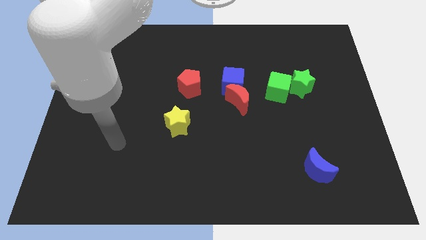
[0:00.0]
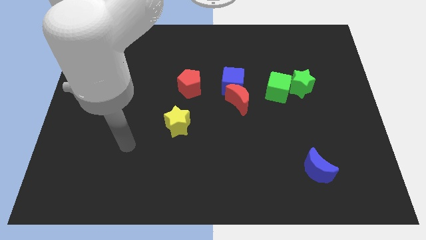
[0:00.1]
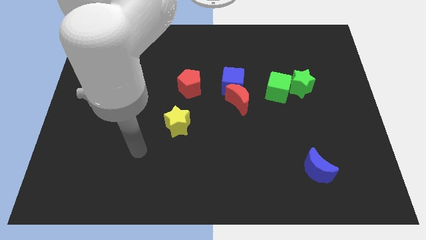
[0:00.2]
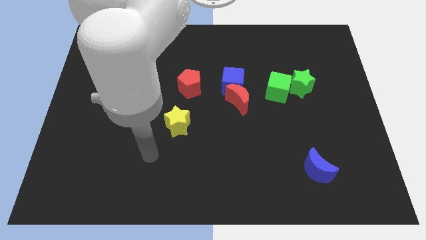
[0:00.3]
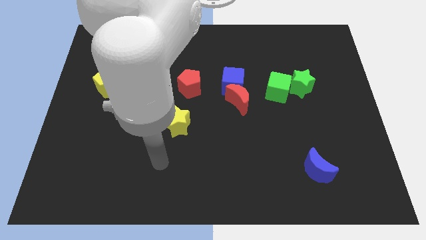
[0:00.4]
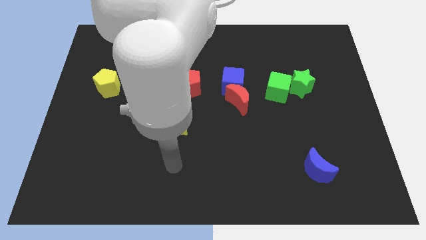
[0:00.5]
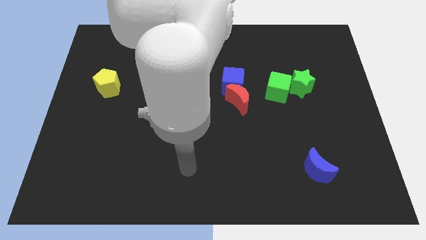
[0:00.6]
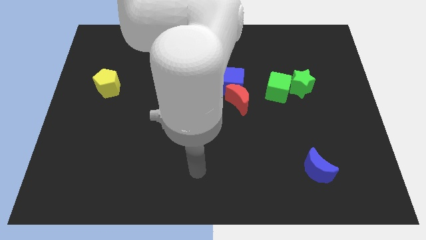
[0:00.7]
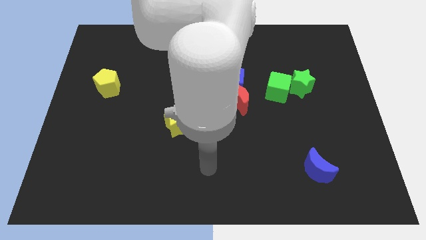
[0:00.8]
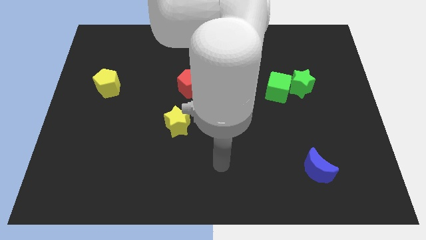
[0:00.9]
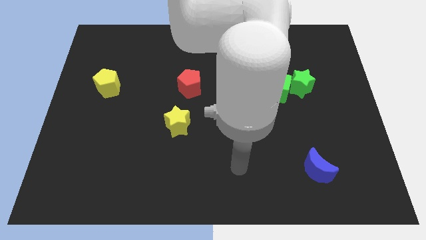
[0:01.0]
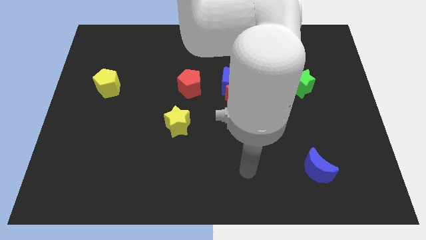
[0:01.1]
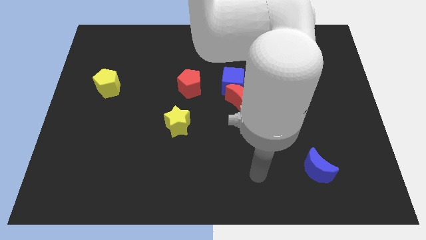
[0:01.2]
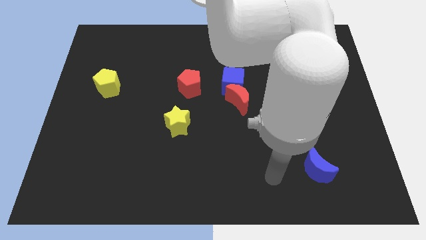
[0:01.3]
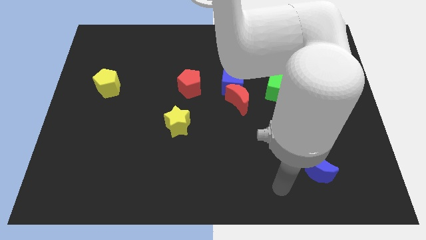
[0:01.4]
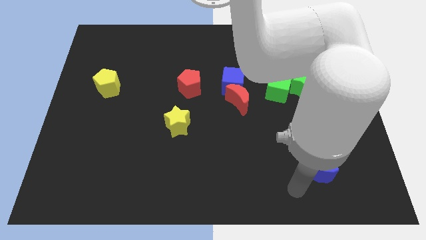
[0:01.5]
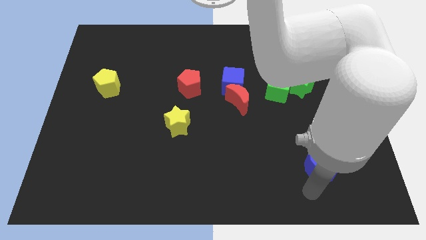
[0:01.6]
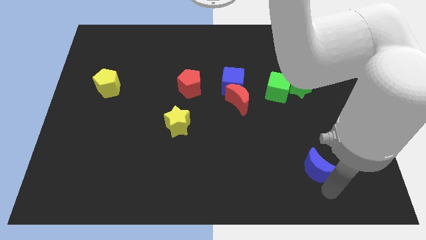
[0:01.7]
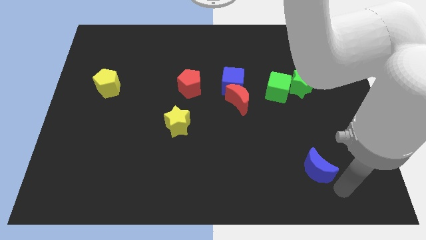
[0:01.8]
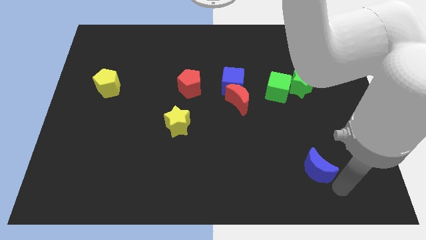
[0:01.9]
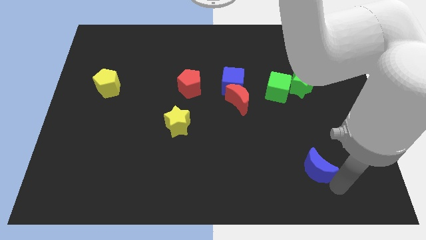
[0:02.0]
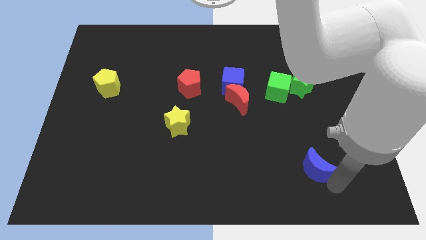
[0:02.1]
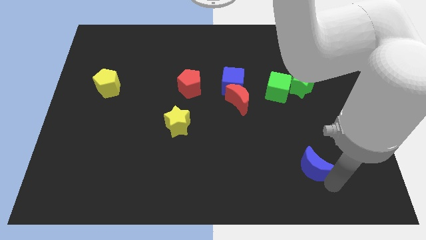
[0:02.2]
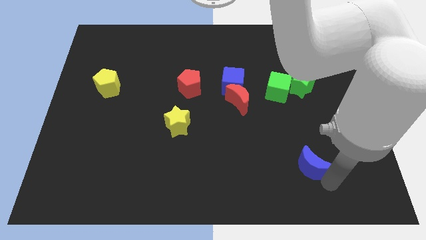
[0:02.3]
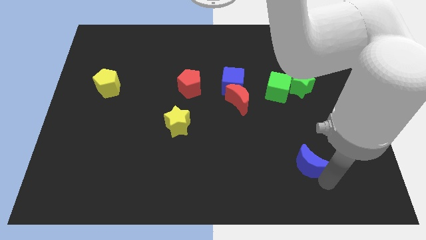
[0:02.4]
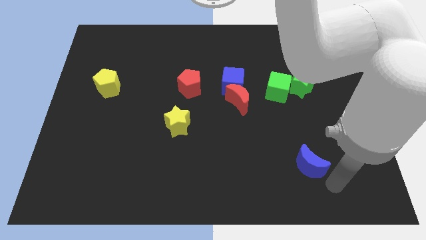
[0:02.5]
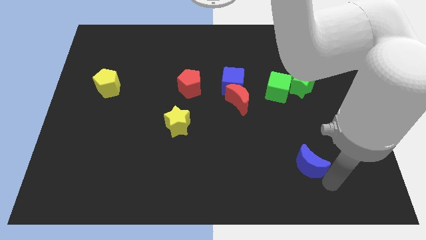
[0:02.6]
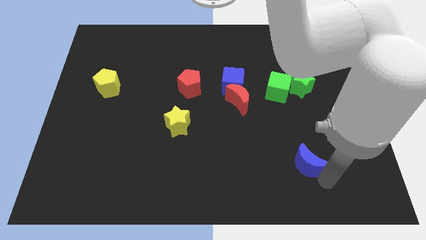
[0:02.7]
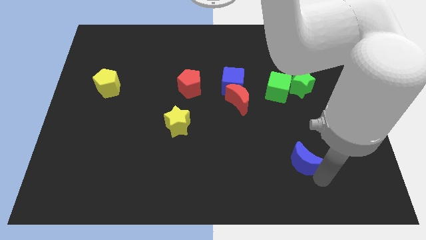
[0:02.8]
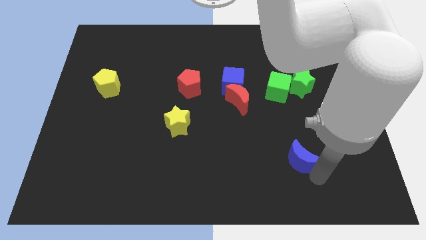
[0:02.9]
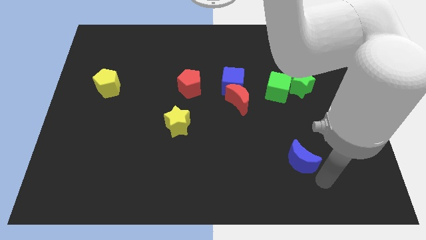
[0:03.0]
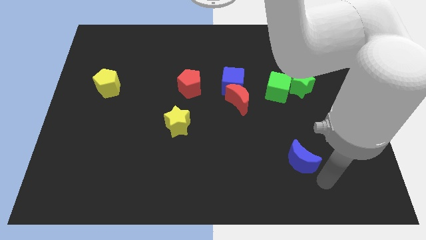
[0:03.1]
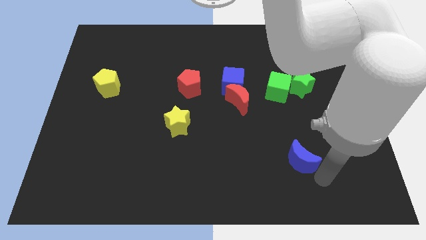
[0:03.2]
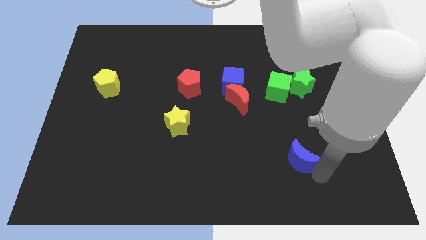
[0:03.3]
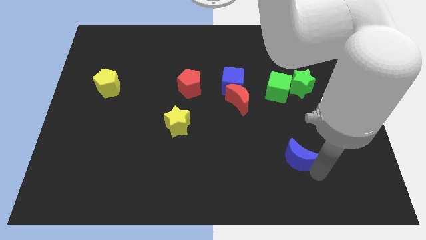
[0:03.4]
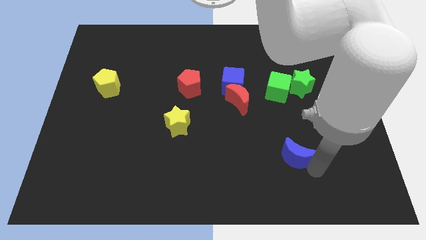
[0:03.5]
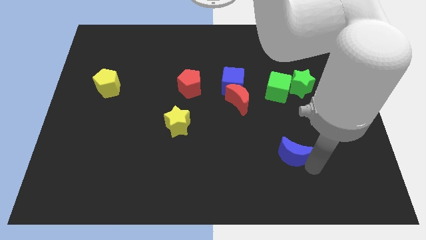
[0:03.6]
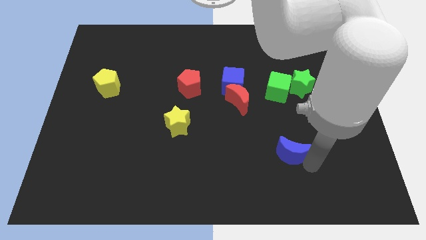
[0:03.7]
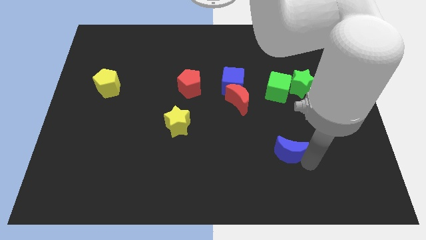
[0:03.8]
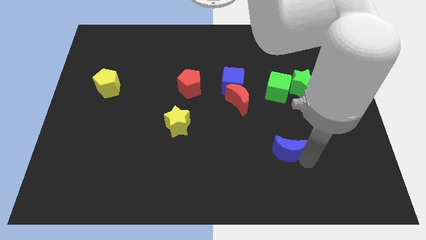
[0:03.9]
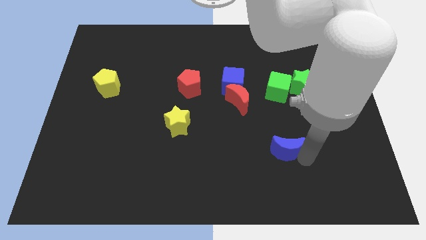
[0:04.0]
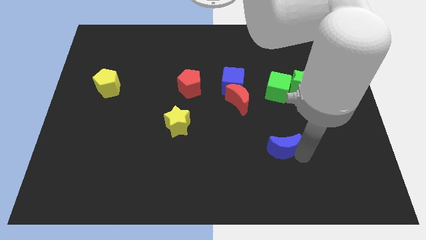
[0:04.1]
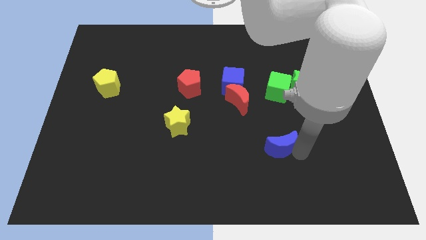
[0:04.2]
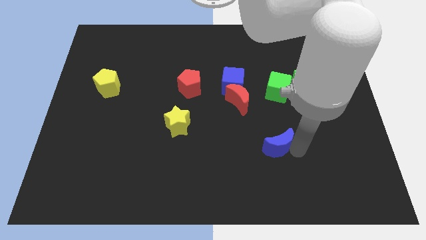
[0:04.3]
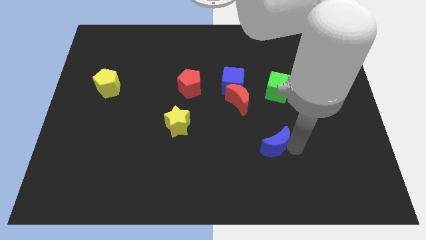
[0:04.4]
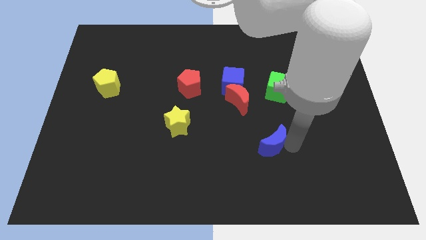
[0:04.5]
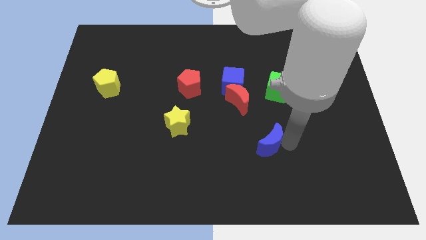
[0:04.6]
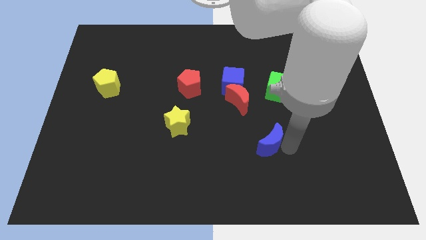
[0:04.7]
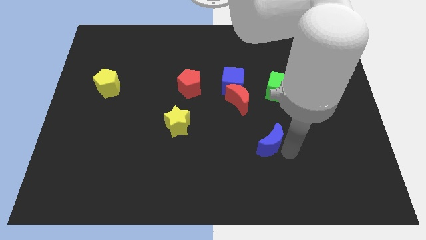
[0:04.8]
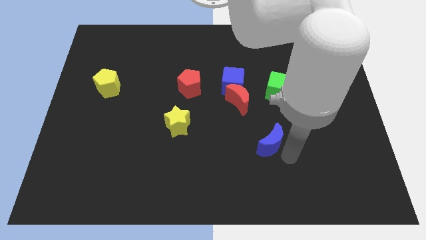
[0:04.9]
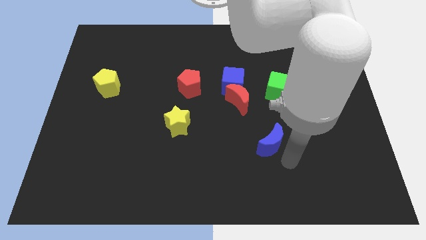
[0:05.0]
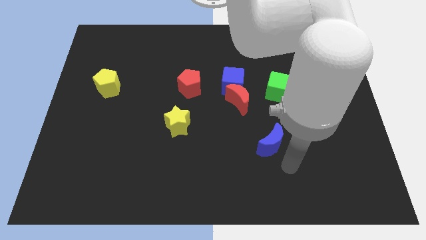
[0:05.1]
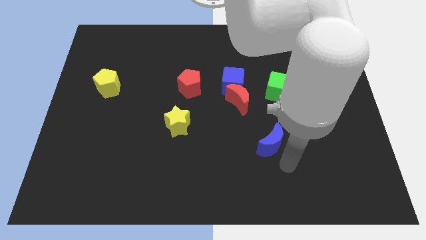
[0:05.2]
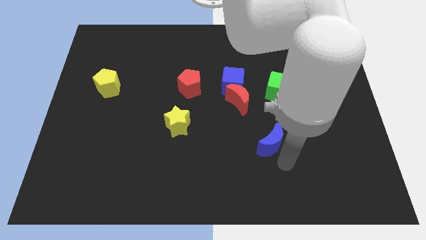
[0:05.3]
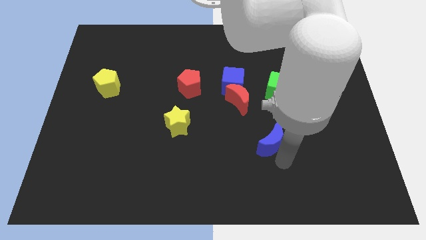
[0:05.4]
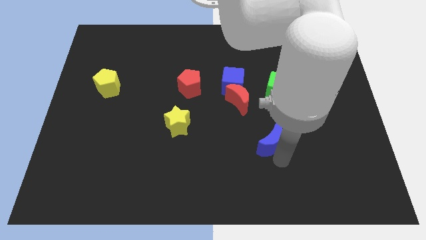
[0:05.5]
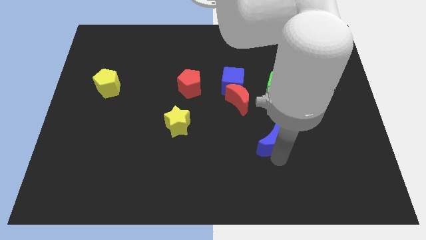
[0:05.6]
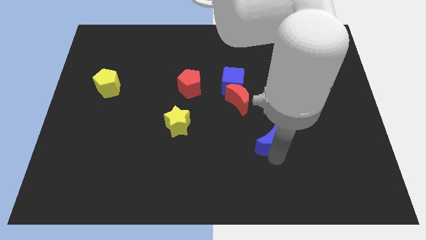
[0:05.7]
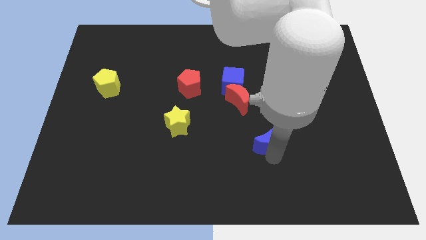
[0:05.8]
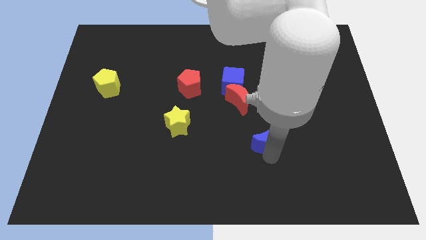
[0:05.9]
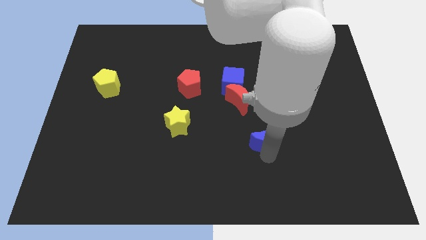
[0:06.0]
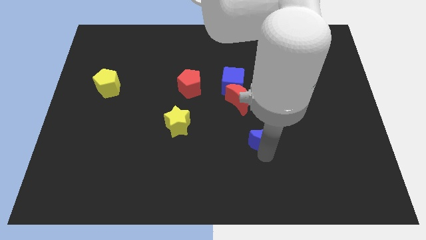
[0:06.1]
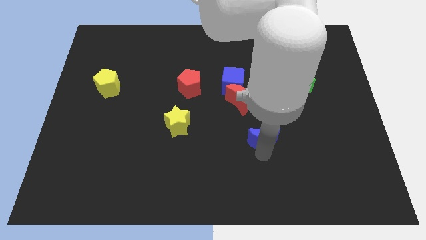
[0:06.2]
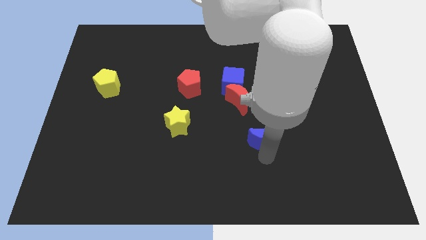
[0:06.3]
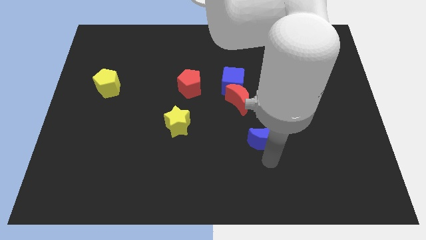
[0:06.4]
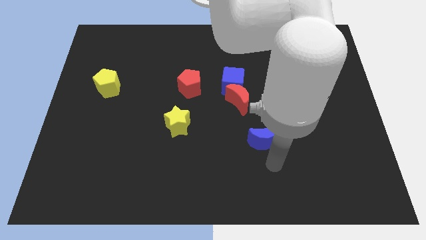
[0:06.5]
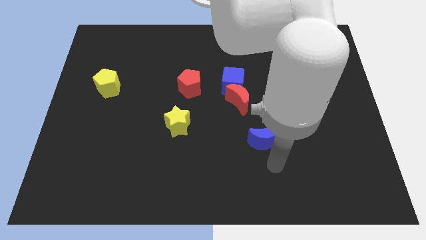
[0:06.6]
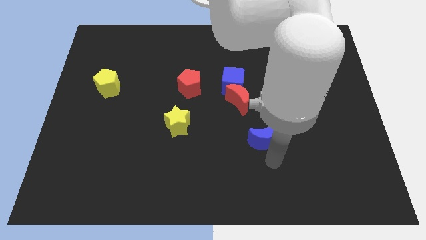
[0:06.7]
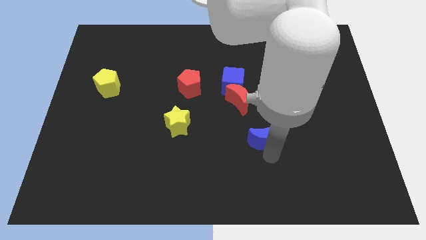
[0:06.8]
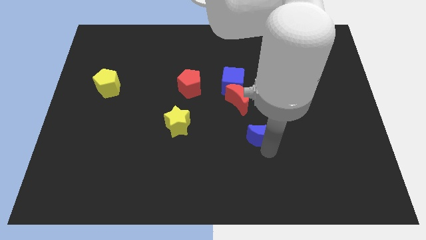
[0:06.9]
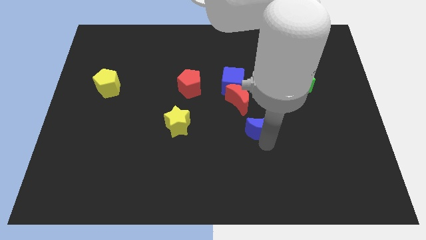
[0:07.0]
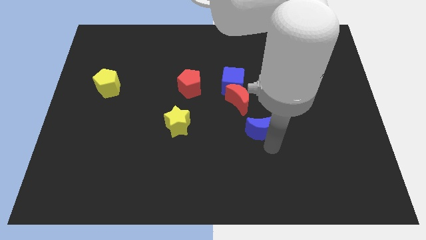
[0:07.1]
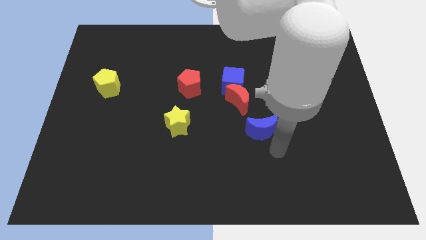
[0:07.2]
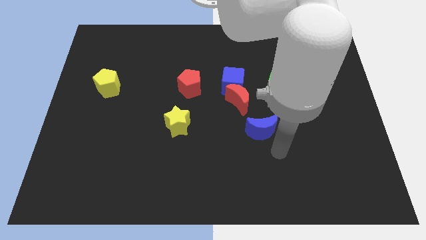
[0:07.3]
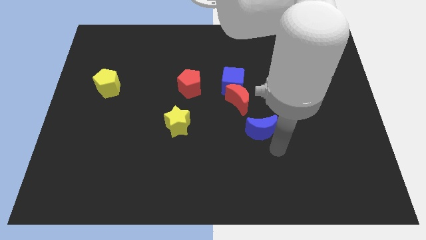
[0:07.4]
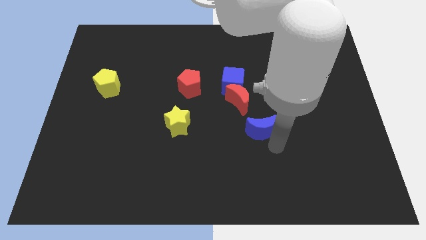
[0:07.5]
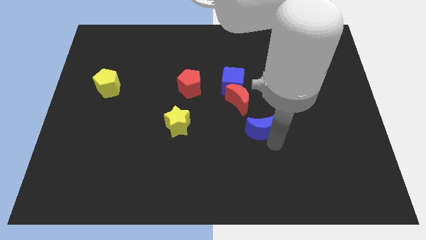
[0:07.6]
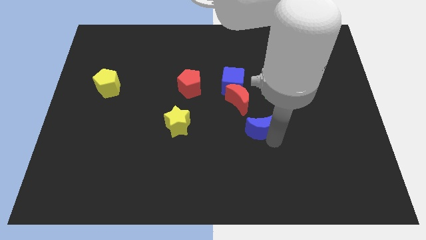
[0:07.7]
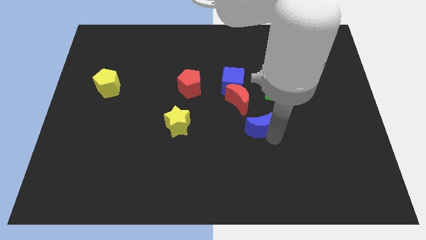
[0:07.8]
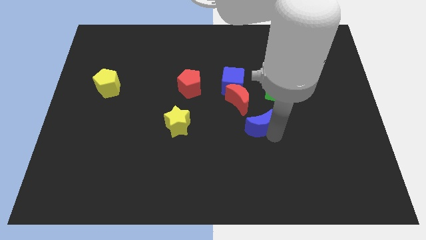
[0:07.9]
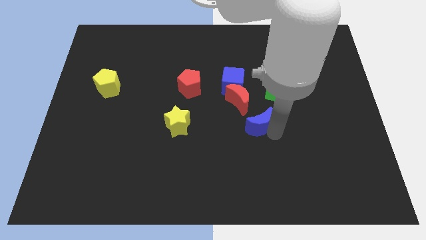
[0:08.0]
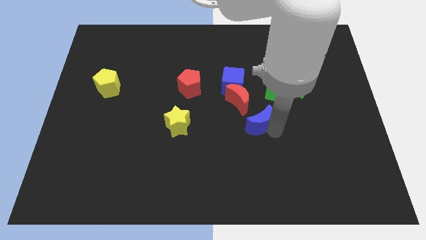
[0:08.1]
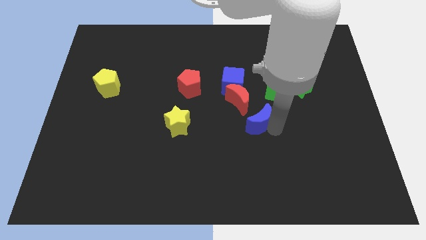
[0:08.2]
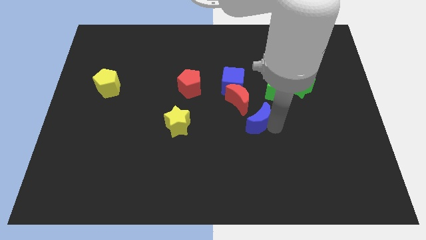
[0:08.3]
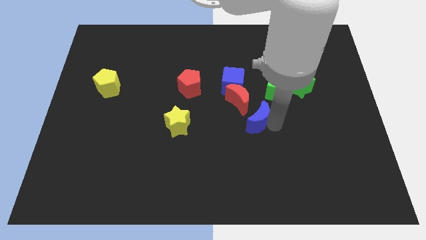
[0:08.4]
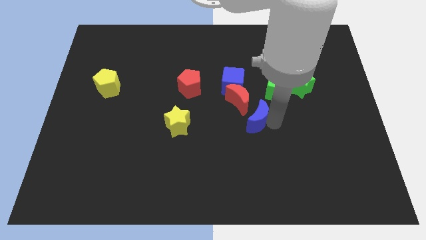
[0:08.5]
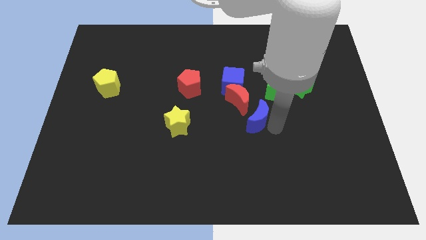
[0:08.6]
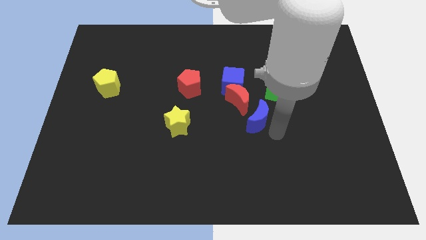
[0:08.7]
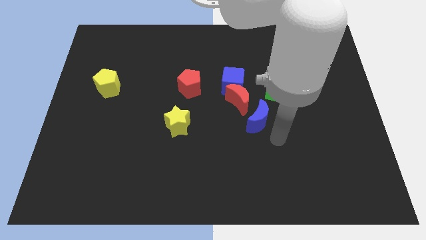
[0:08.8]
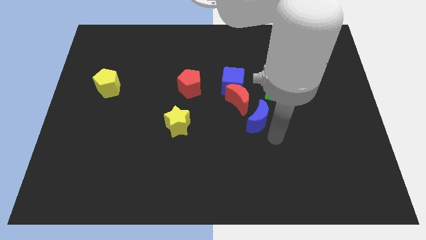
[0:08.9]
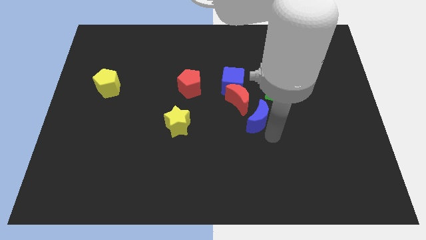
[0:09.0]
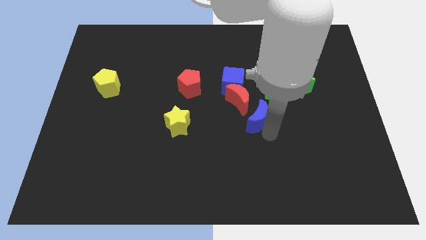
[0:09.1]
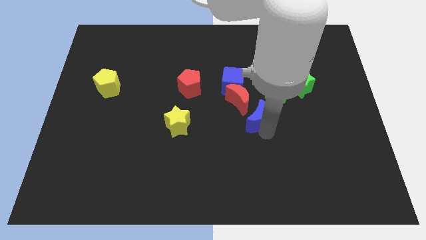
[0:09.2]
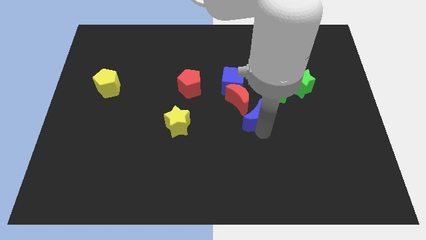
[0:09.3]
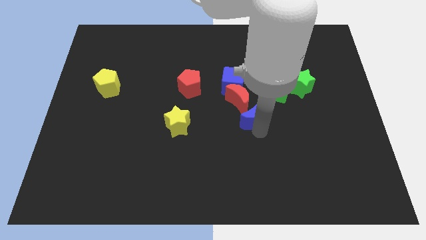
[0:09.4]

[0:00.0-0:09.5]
put the blue moon to the red moon
